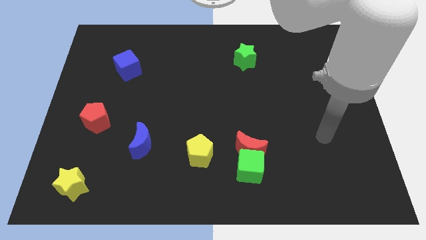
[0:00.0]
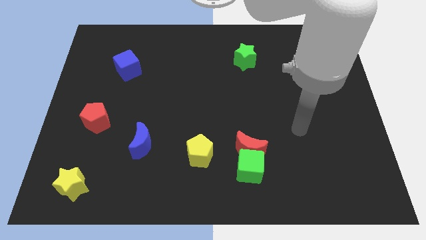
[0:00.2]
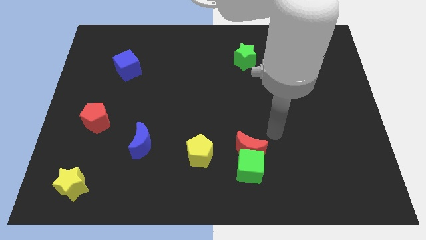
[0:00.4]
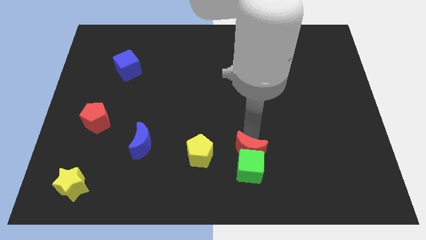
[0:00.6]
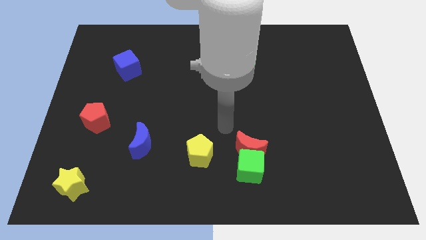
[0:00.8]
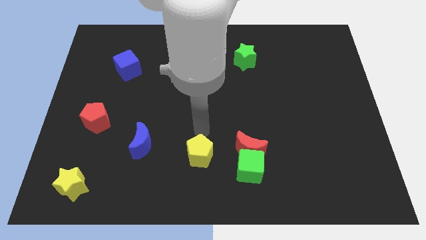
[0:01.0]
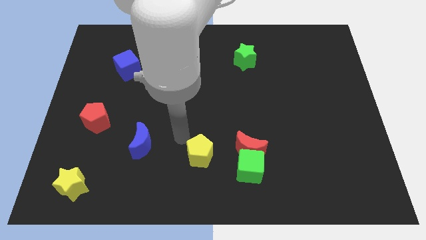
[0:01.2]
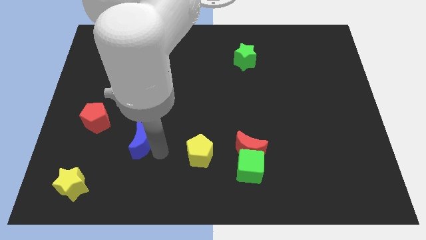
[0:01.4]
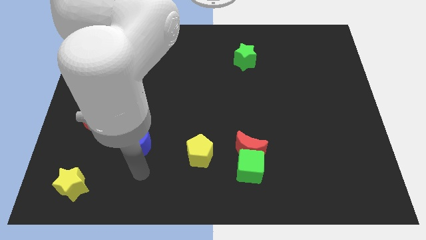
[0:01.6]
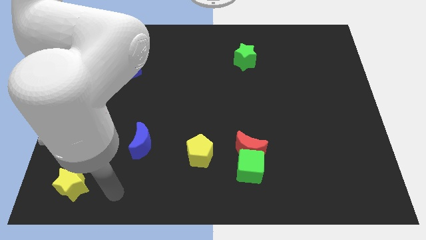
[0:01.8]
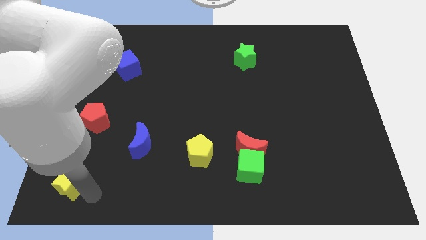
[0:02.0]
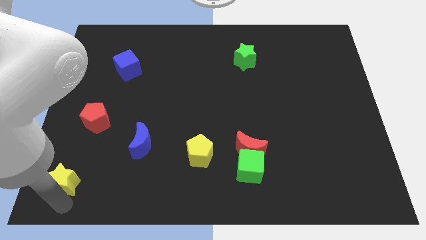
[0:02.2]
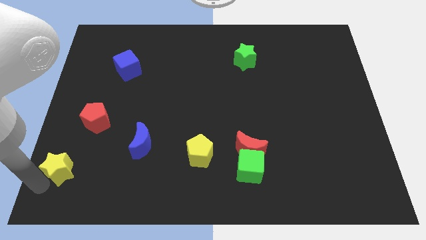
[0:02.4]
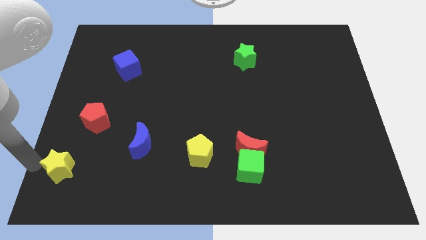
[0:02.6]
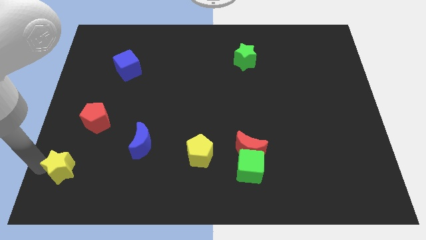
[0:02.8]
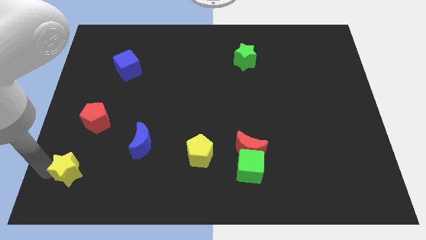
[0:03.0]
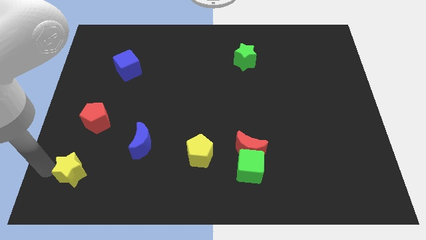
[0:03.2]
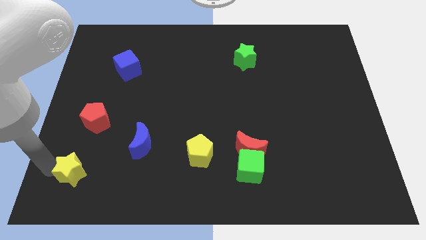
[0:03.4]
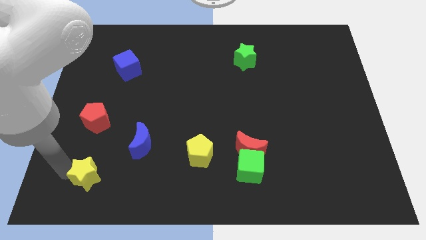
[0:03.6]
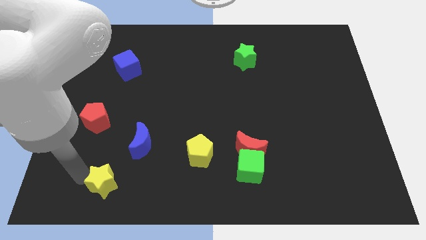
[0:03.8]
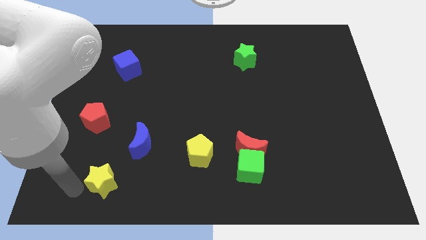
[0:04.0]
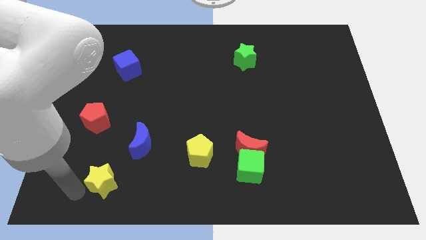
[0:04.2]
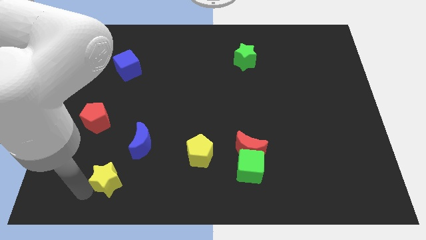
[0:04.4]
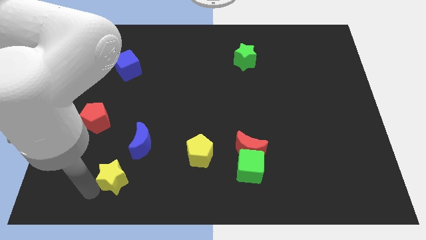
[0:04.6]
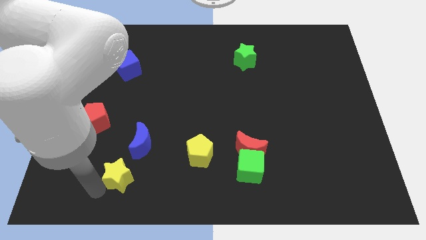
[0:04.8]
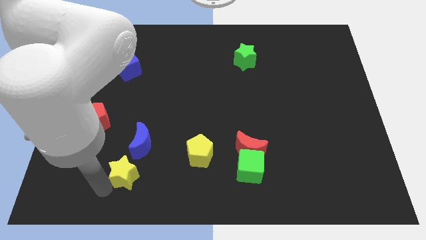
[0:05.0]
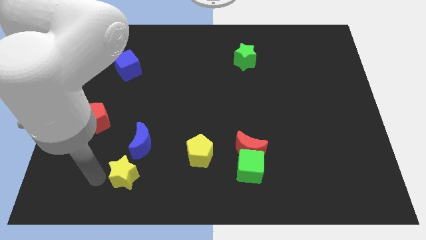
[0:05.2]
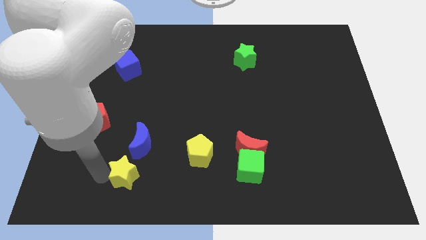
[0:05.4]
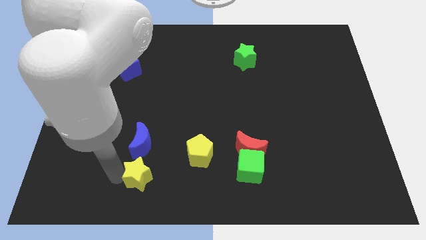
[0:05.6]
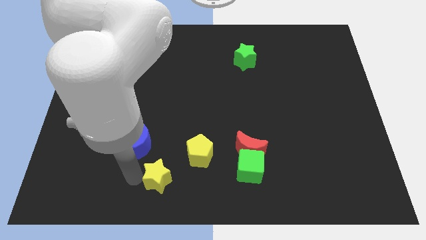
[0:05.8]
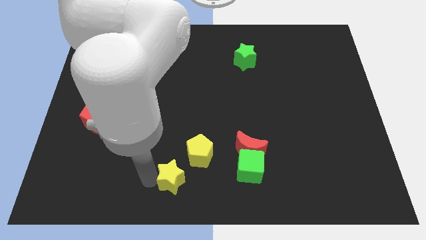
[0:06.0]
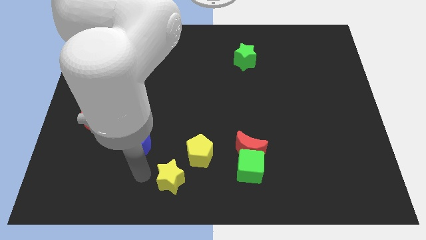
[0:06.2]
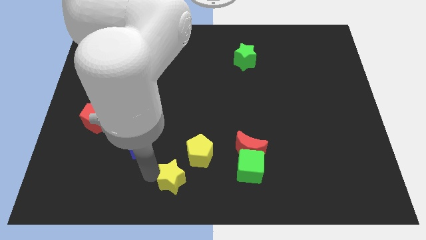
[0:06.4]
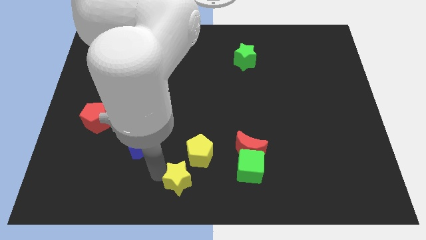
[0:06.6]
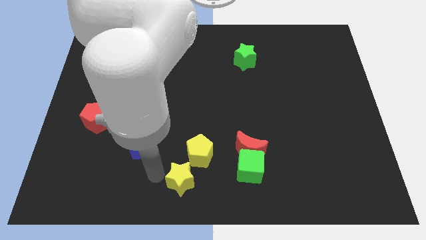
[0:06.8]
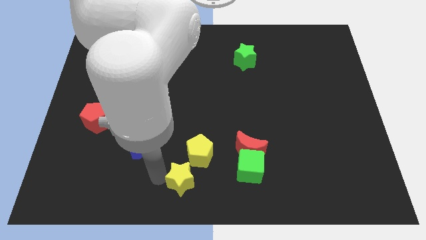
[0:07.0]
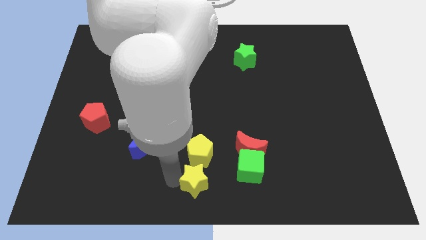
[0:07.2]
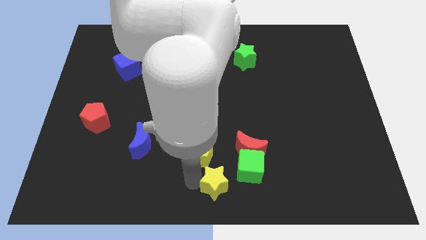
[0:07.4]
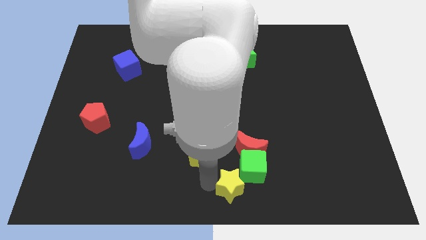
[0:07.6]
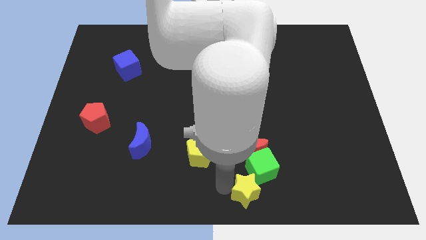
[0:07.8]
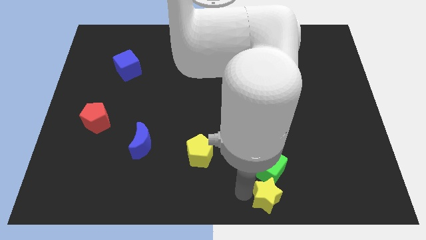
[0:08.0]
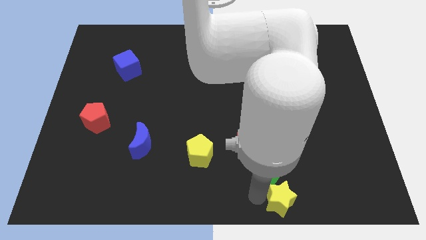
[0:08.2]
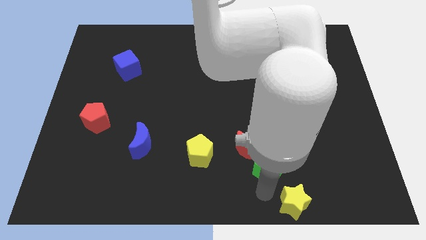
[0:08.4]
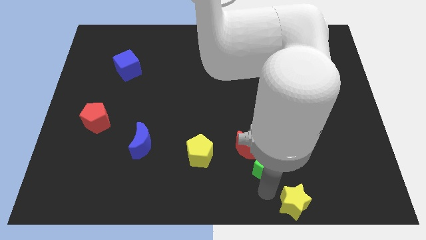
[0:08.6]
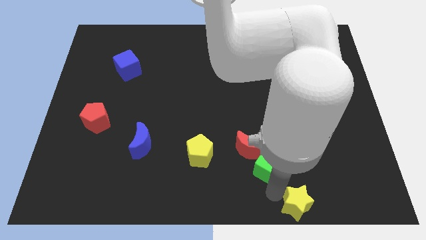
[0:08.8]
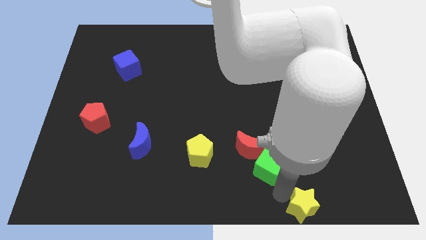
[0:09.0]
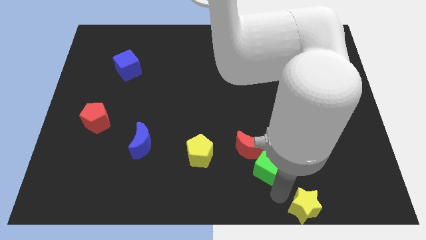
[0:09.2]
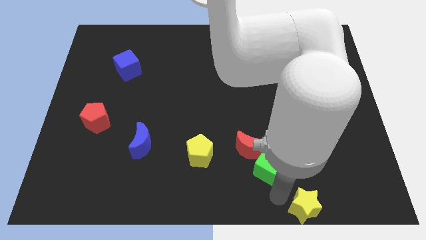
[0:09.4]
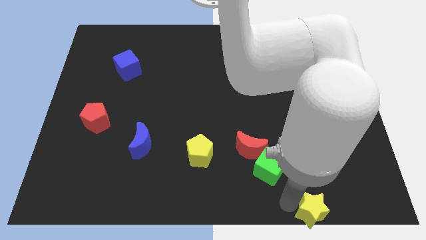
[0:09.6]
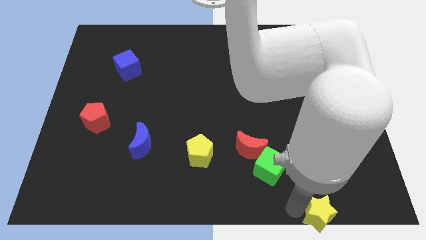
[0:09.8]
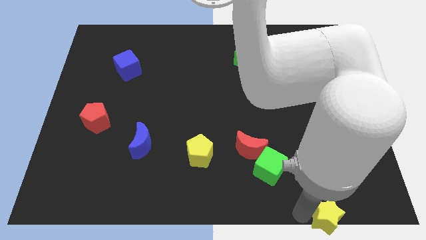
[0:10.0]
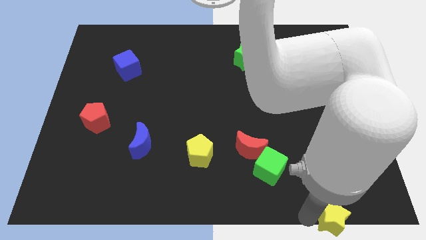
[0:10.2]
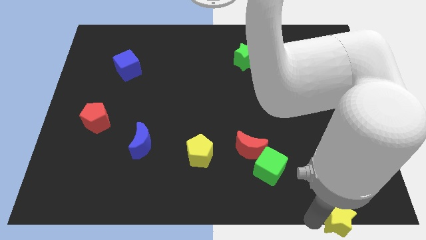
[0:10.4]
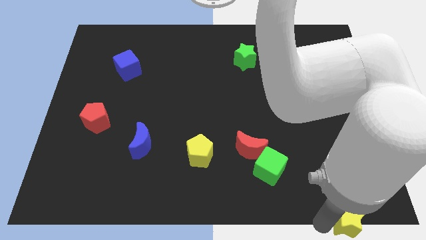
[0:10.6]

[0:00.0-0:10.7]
push the yellow star to the bottom right of the board
